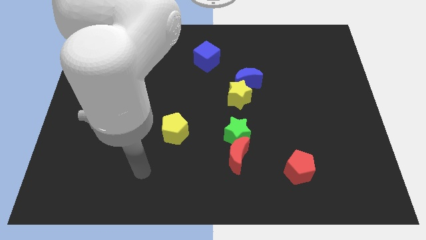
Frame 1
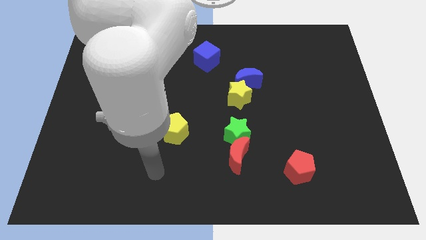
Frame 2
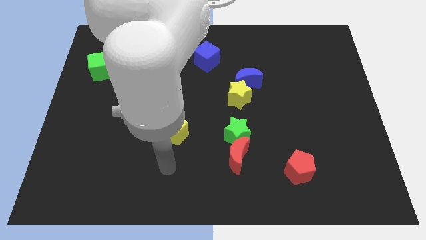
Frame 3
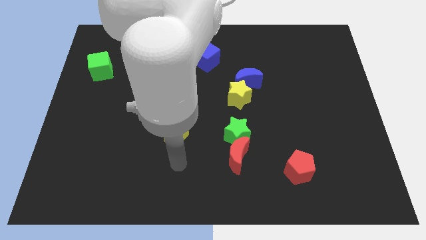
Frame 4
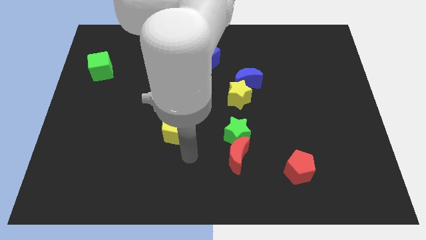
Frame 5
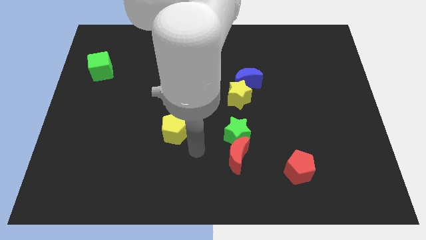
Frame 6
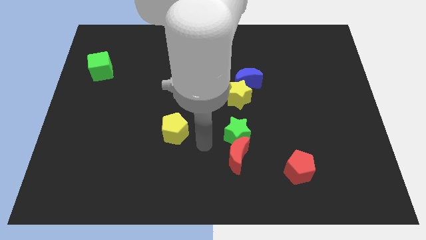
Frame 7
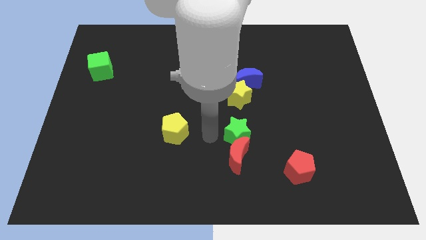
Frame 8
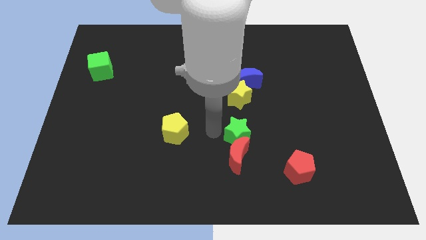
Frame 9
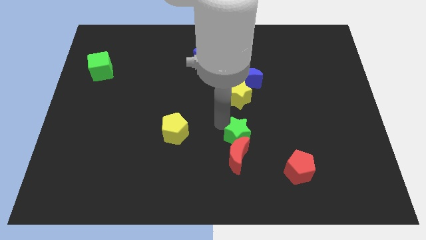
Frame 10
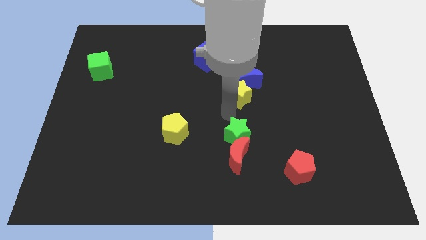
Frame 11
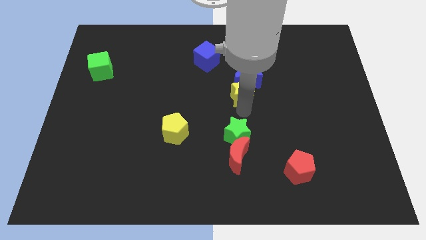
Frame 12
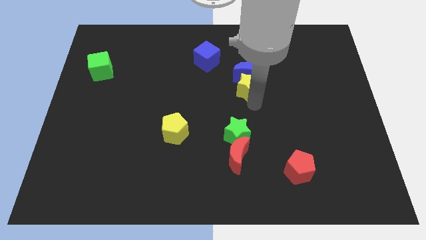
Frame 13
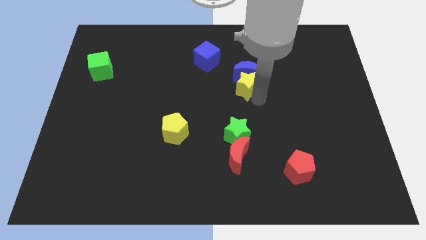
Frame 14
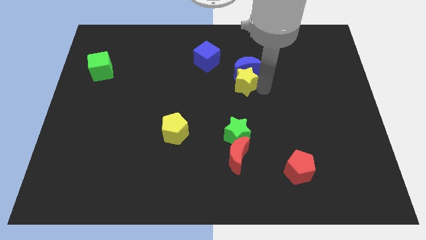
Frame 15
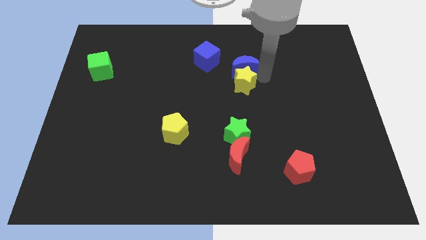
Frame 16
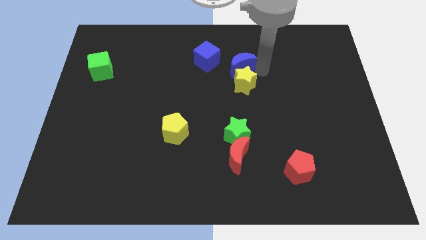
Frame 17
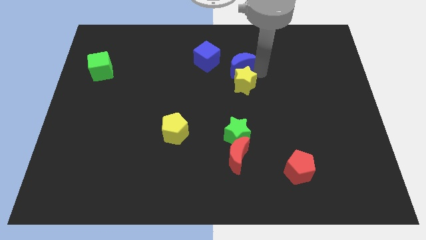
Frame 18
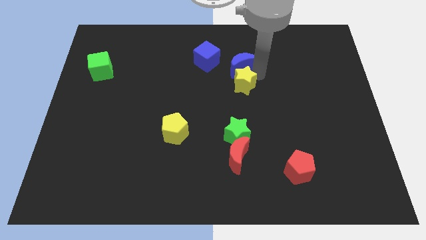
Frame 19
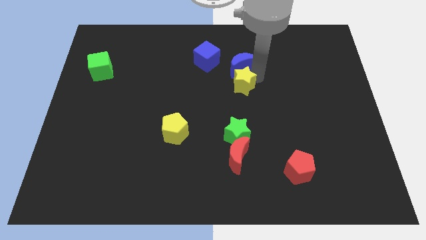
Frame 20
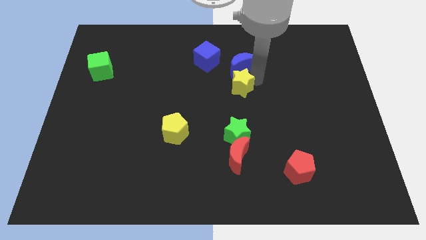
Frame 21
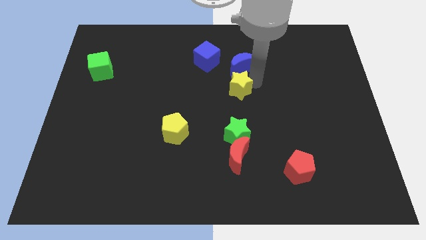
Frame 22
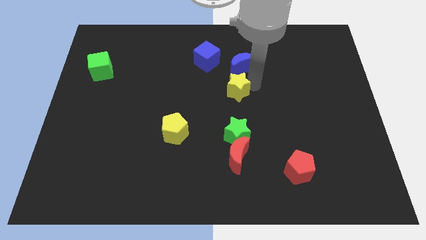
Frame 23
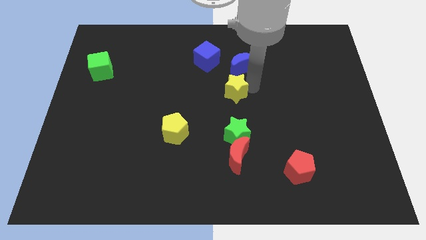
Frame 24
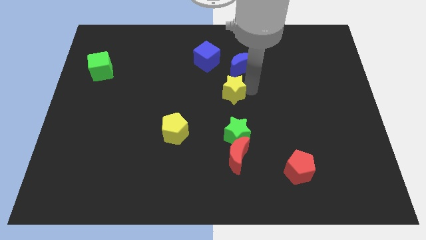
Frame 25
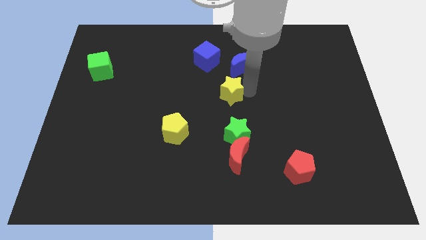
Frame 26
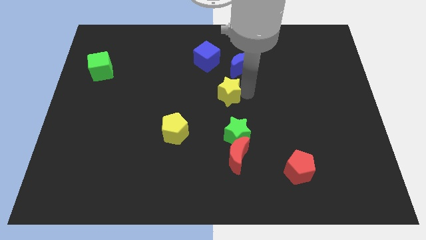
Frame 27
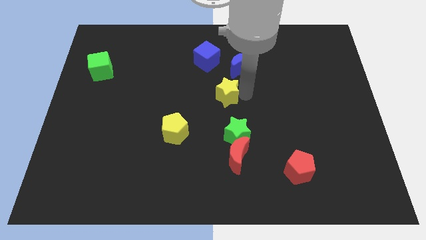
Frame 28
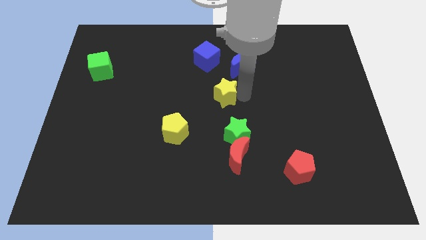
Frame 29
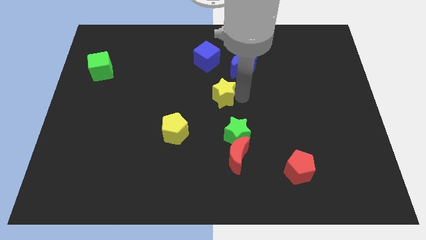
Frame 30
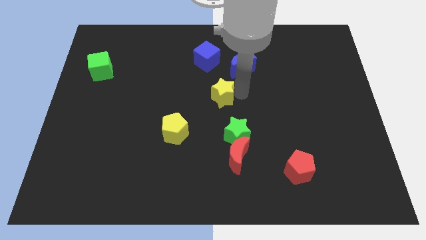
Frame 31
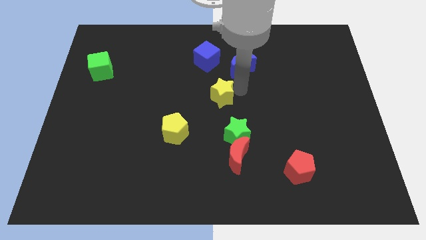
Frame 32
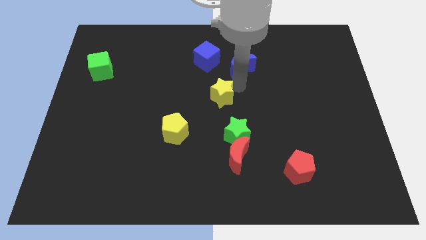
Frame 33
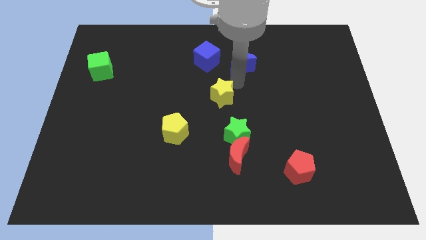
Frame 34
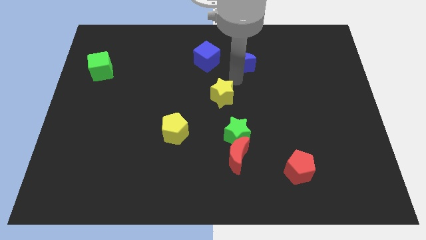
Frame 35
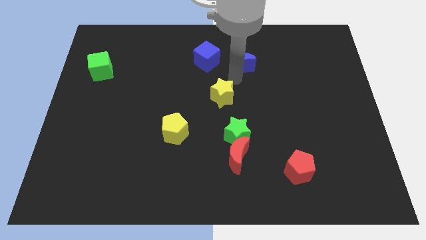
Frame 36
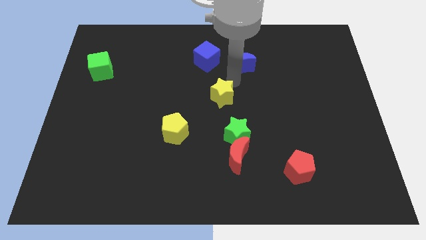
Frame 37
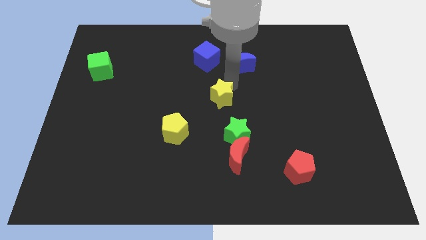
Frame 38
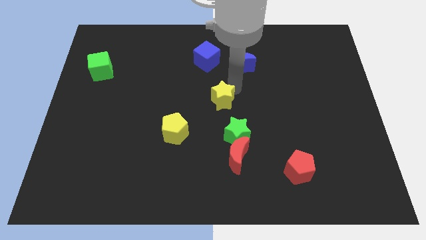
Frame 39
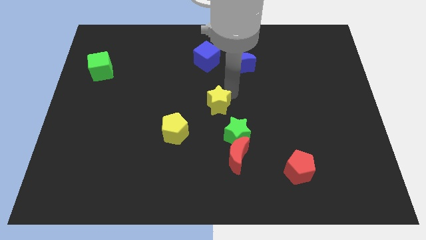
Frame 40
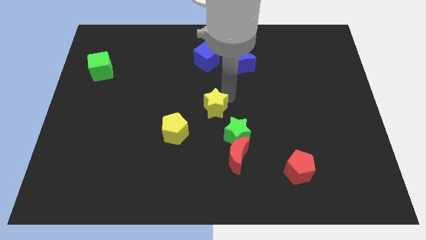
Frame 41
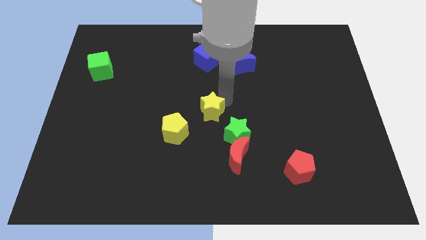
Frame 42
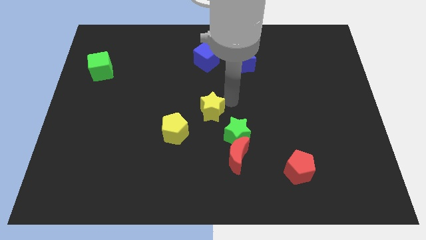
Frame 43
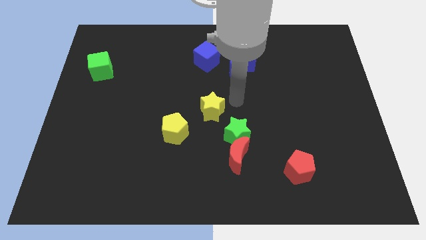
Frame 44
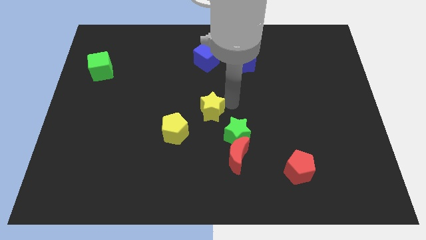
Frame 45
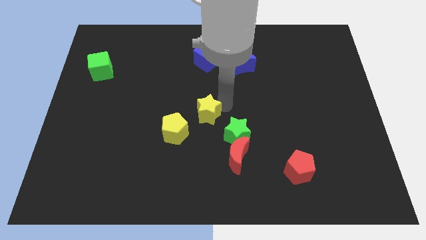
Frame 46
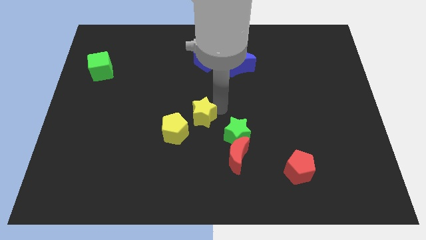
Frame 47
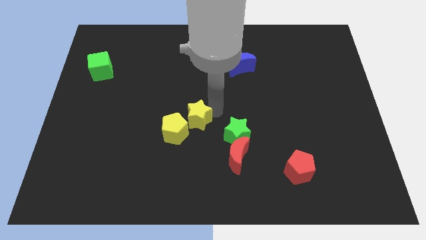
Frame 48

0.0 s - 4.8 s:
move the yellow star close to the yellow pentagon

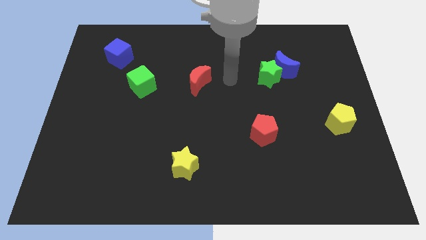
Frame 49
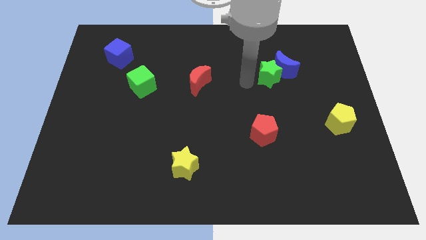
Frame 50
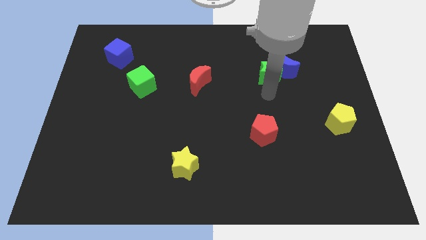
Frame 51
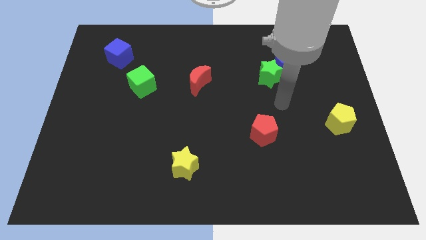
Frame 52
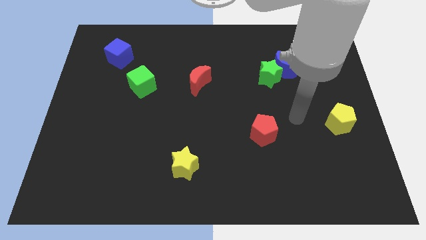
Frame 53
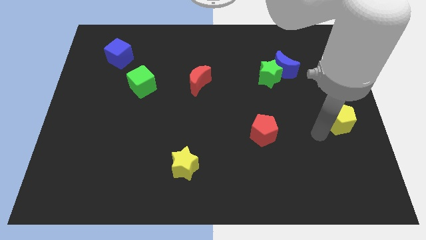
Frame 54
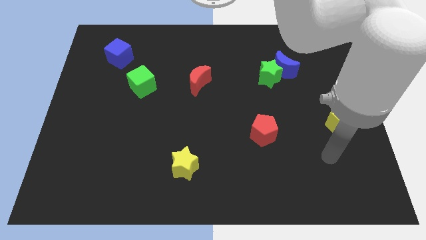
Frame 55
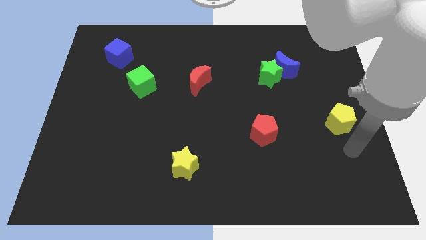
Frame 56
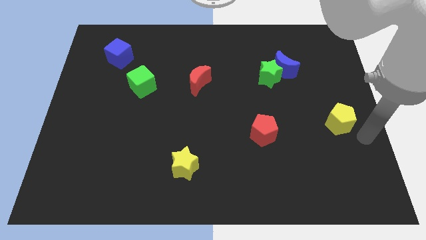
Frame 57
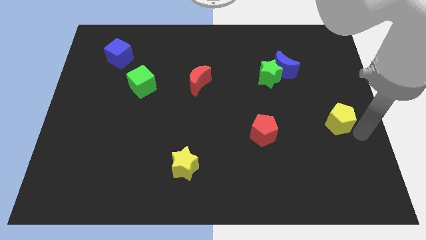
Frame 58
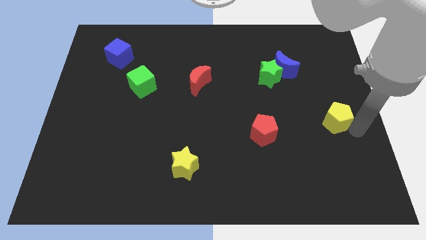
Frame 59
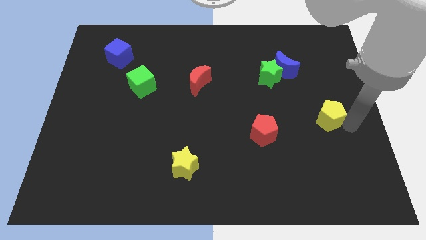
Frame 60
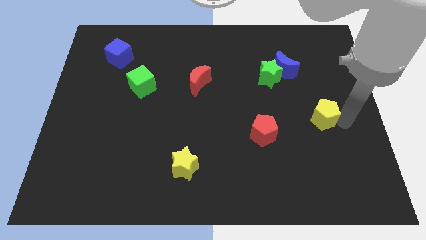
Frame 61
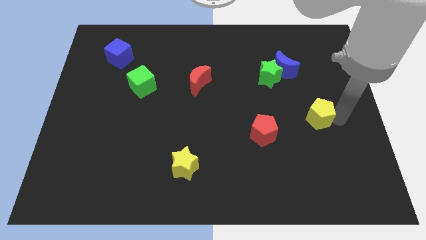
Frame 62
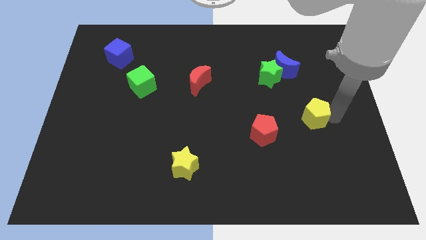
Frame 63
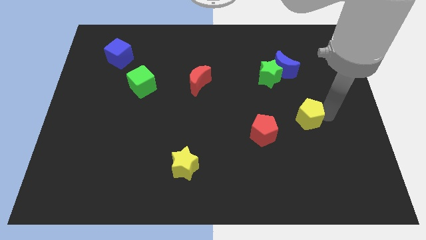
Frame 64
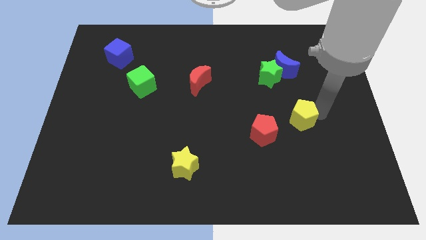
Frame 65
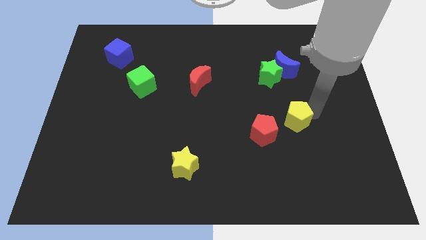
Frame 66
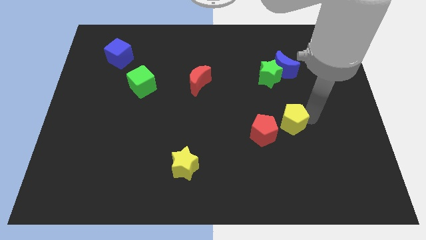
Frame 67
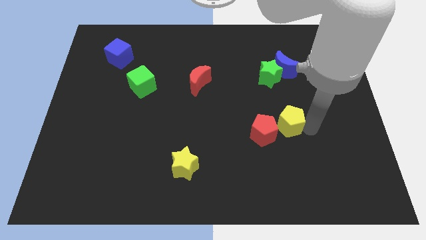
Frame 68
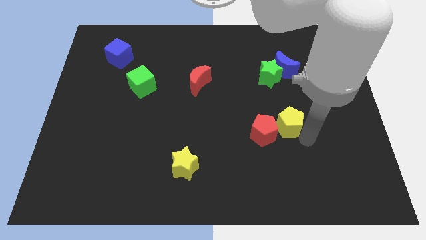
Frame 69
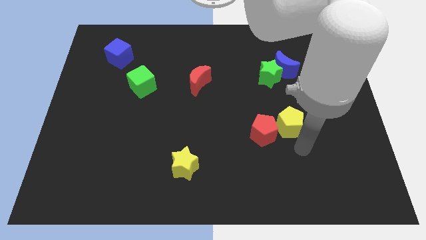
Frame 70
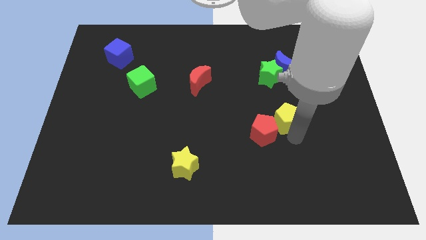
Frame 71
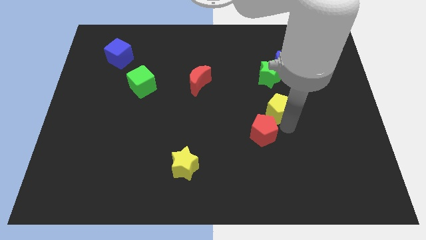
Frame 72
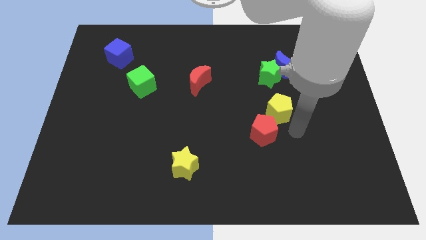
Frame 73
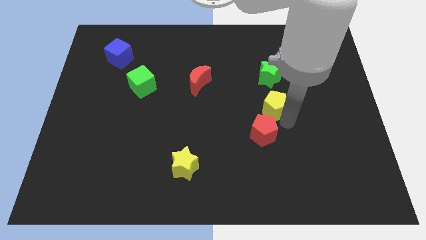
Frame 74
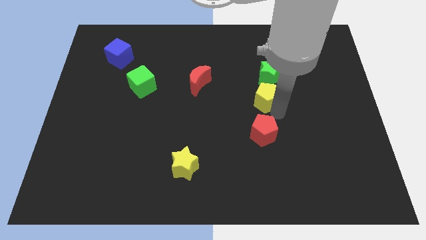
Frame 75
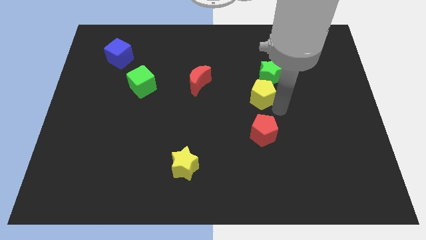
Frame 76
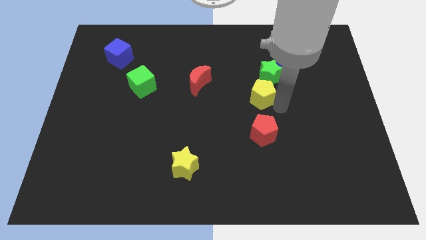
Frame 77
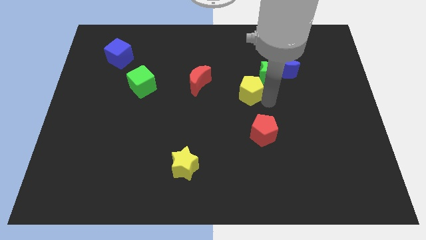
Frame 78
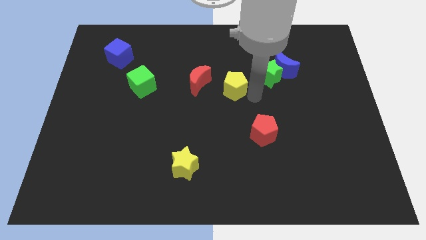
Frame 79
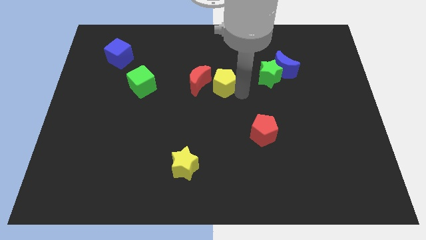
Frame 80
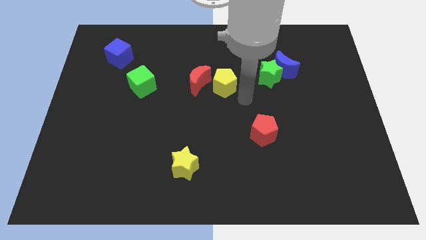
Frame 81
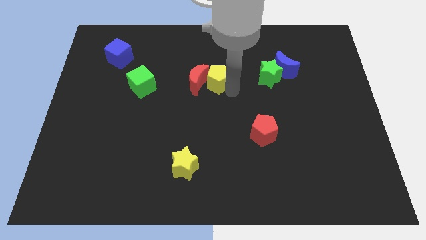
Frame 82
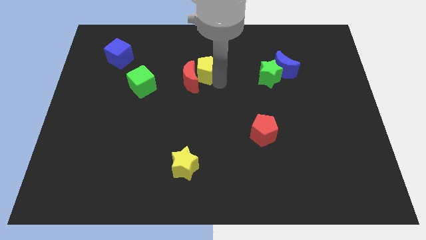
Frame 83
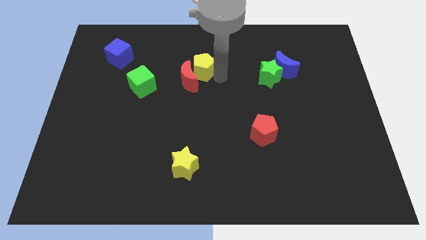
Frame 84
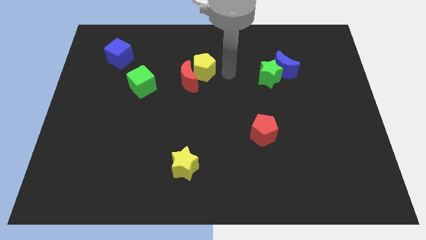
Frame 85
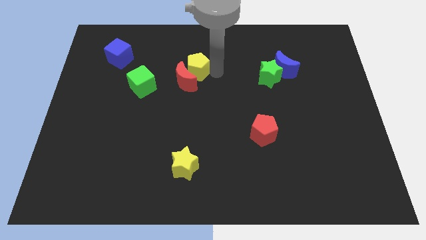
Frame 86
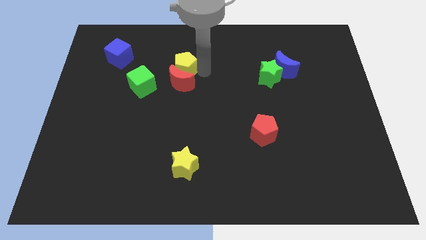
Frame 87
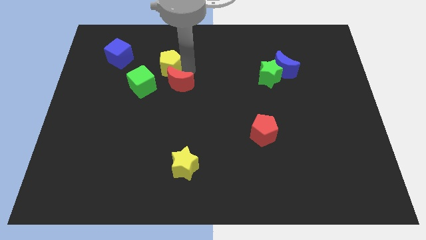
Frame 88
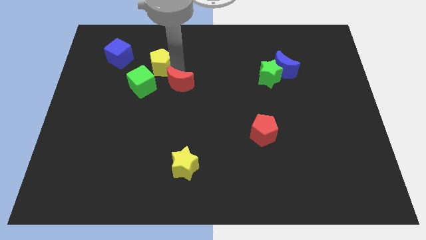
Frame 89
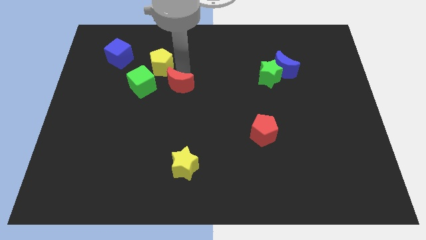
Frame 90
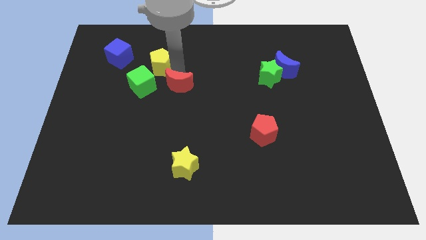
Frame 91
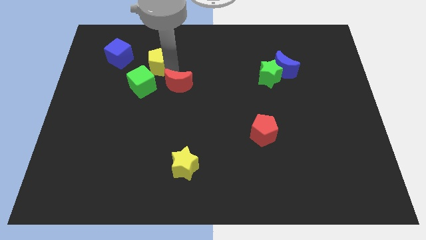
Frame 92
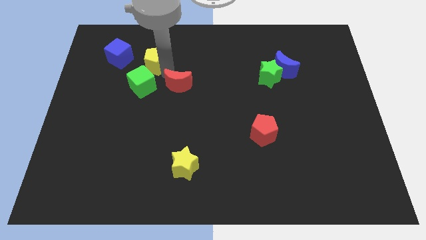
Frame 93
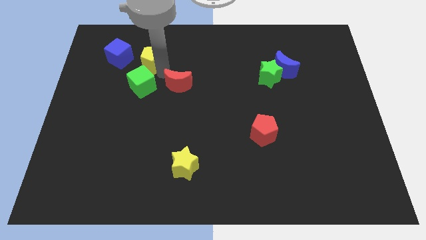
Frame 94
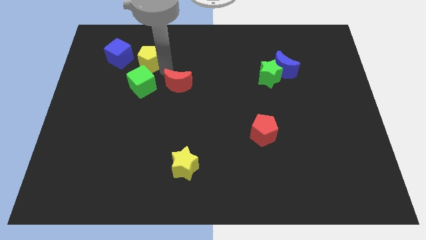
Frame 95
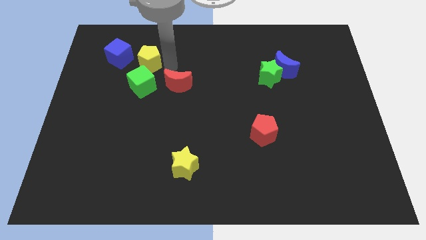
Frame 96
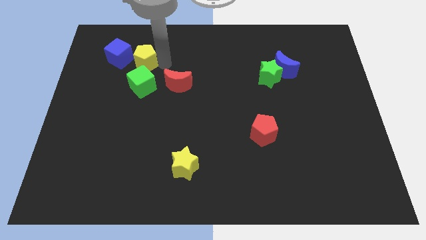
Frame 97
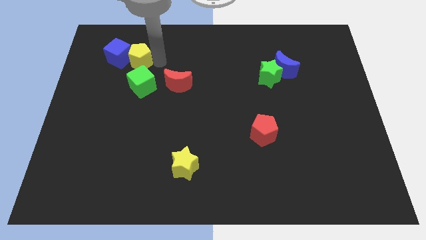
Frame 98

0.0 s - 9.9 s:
move the yellow pentagon towards the blue cube
